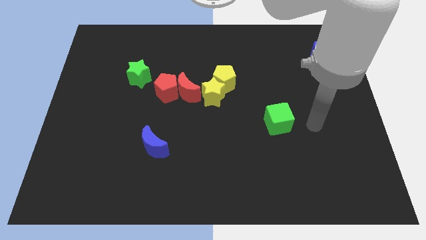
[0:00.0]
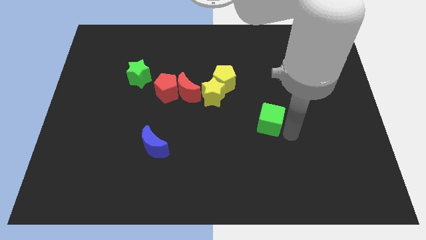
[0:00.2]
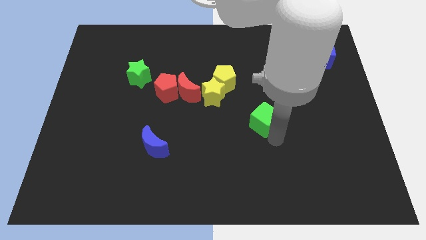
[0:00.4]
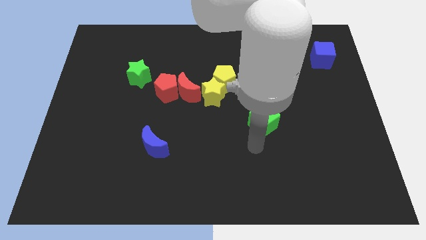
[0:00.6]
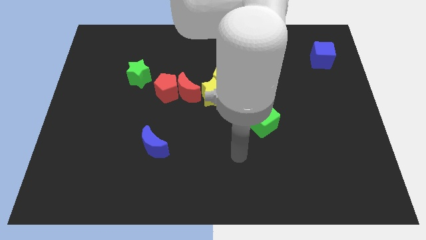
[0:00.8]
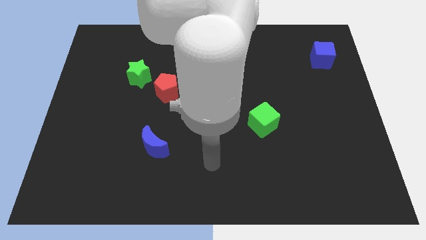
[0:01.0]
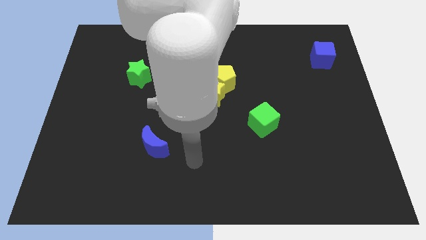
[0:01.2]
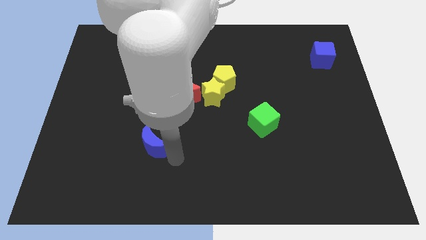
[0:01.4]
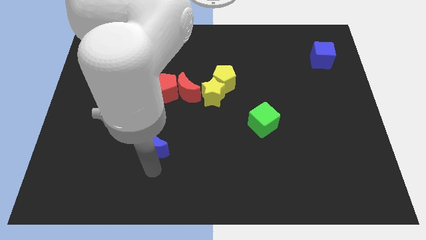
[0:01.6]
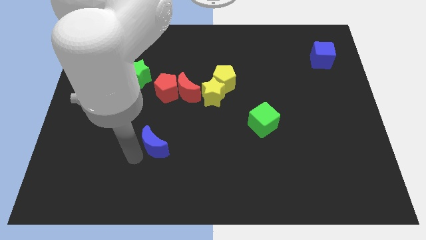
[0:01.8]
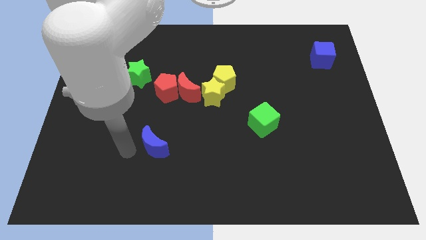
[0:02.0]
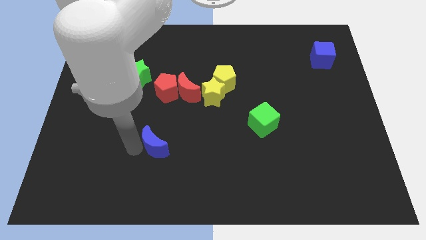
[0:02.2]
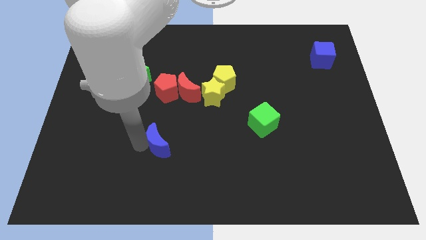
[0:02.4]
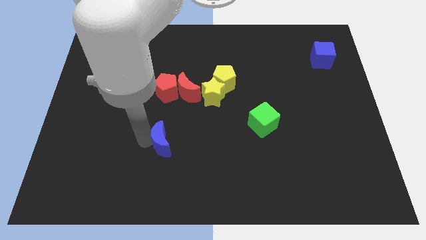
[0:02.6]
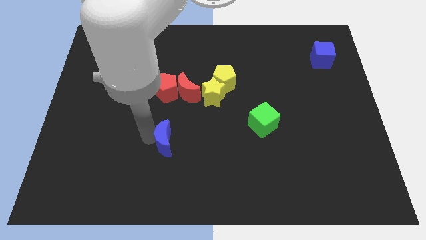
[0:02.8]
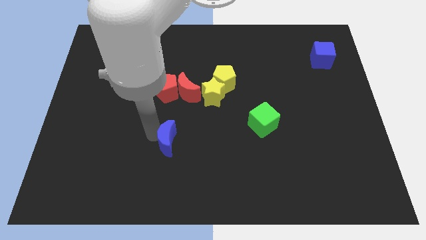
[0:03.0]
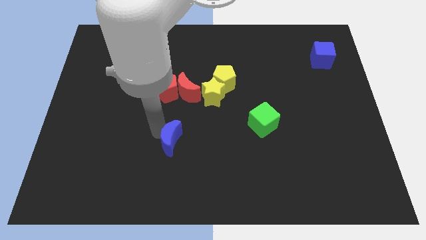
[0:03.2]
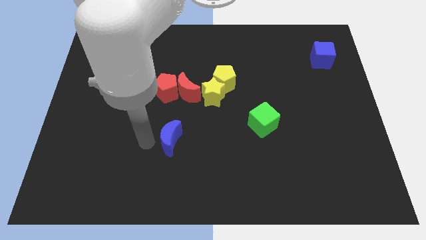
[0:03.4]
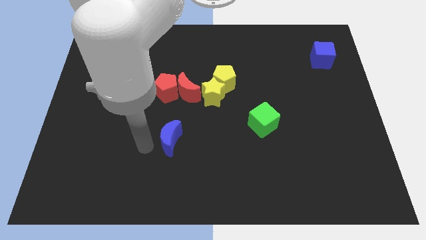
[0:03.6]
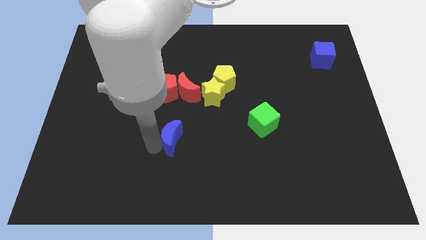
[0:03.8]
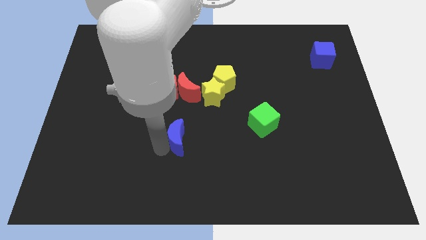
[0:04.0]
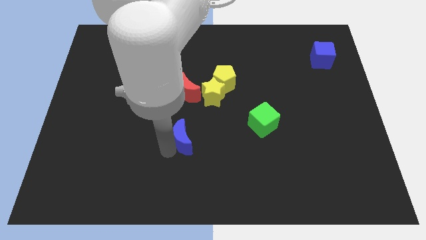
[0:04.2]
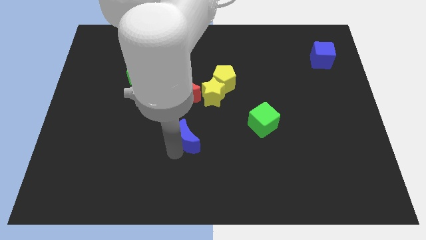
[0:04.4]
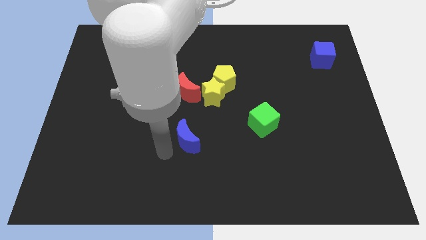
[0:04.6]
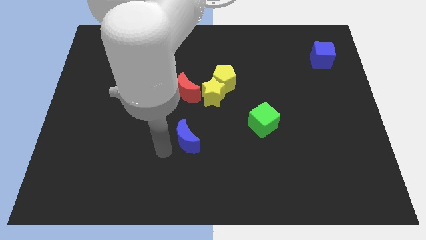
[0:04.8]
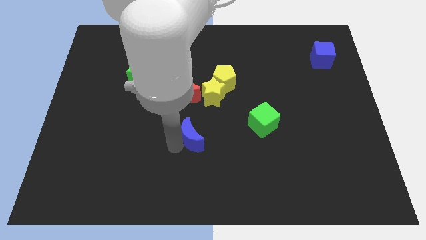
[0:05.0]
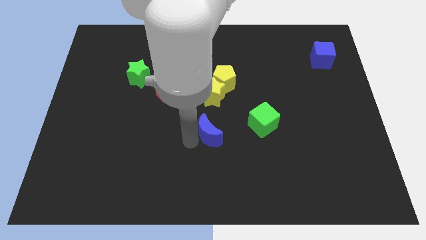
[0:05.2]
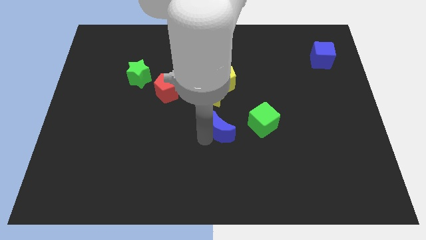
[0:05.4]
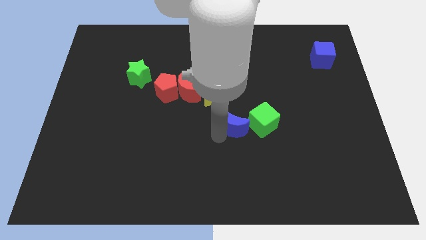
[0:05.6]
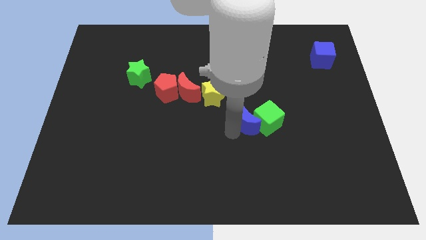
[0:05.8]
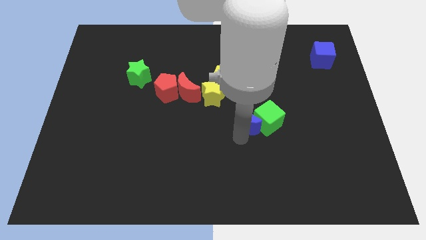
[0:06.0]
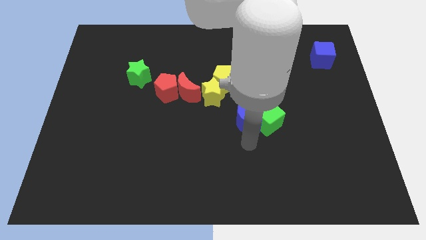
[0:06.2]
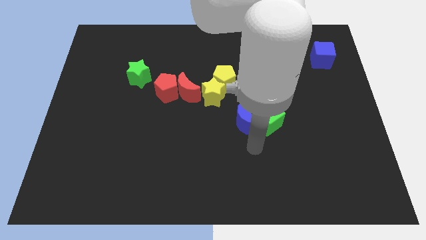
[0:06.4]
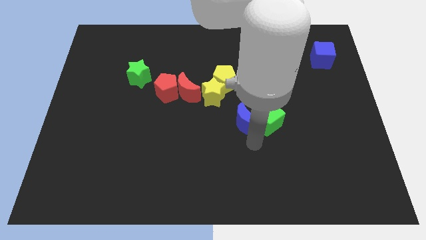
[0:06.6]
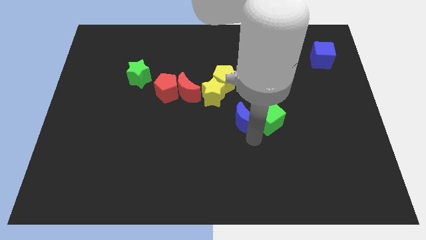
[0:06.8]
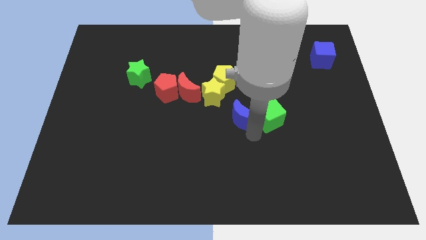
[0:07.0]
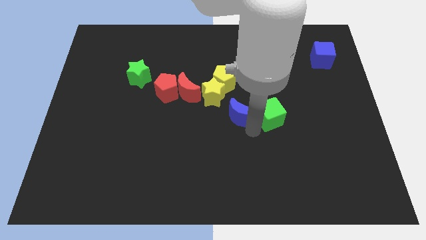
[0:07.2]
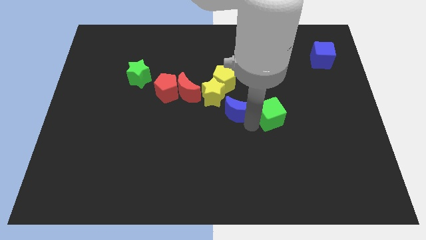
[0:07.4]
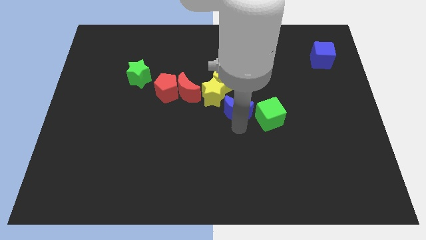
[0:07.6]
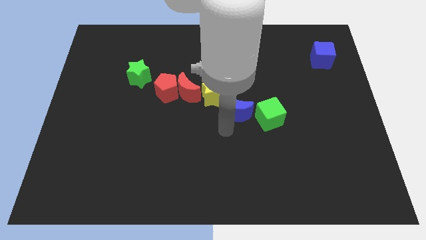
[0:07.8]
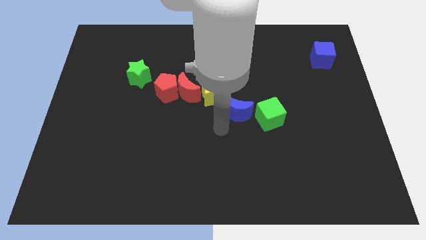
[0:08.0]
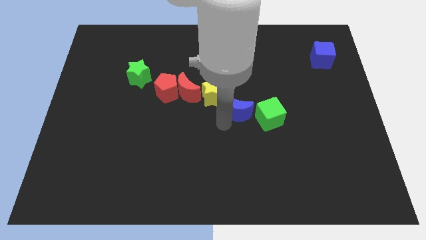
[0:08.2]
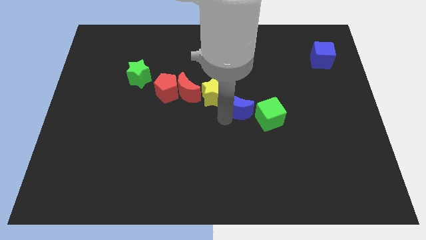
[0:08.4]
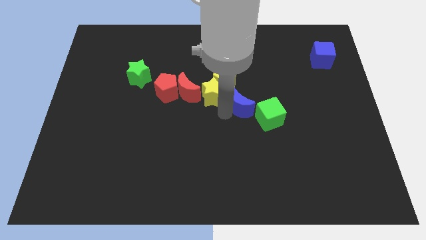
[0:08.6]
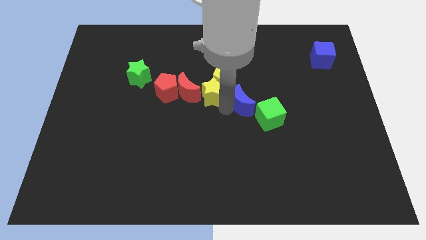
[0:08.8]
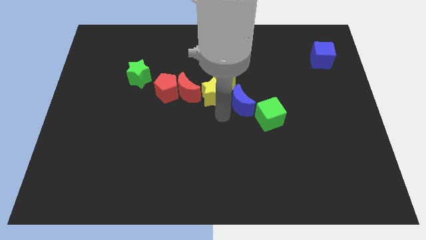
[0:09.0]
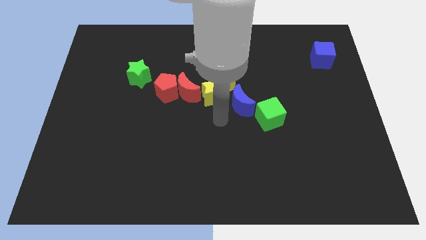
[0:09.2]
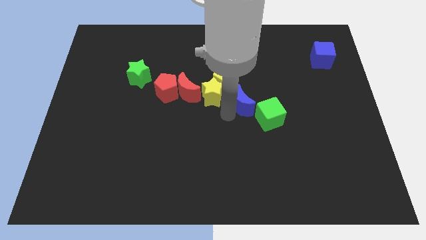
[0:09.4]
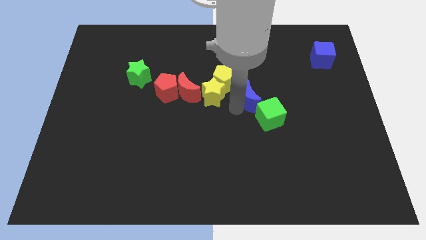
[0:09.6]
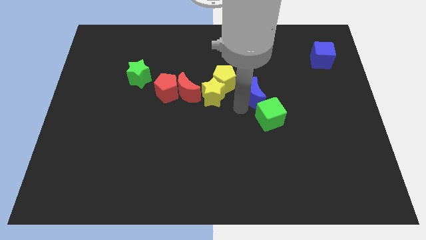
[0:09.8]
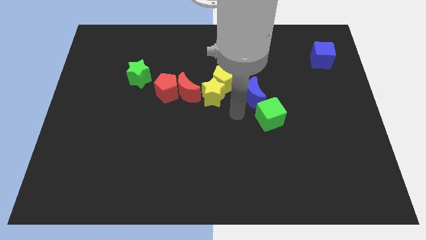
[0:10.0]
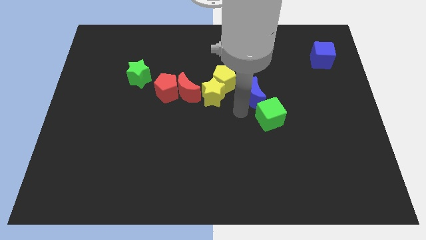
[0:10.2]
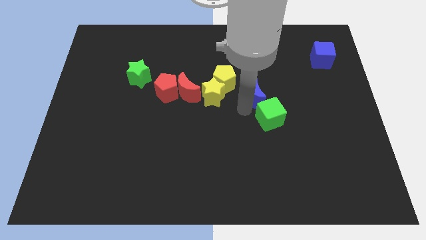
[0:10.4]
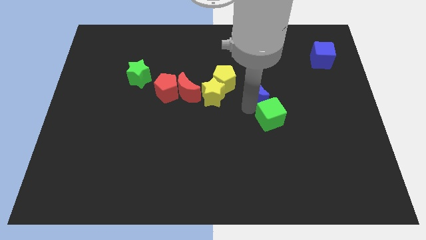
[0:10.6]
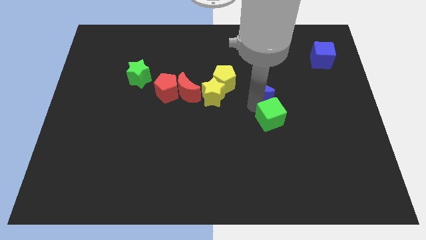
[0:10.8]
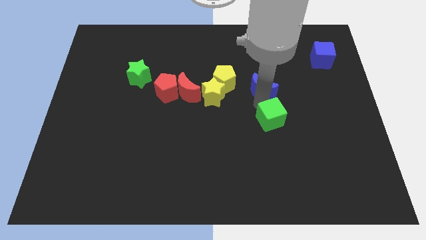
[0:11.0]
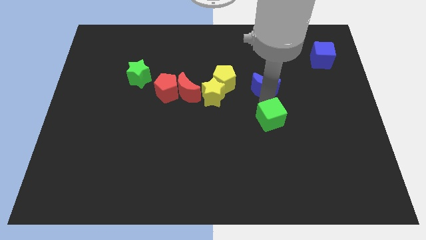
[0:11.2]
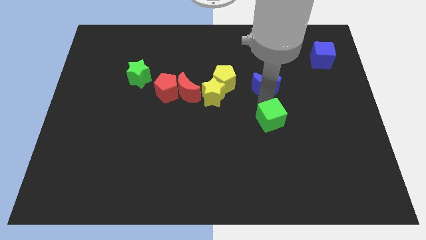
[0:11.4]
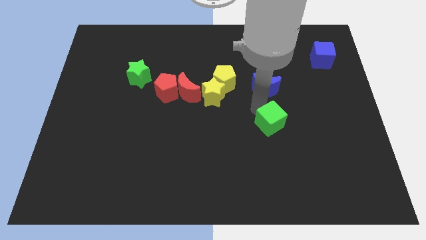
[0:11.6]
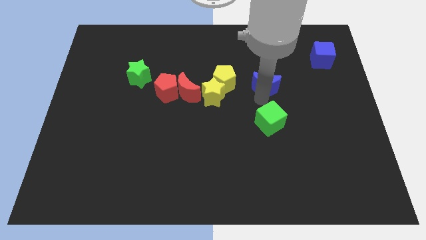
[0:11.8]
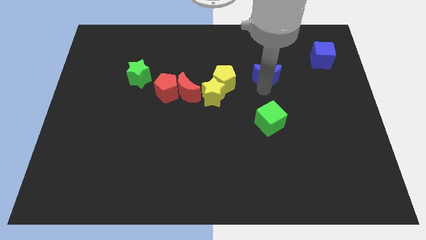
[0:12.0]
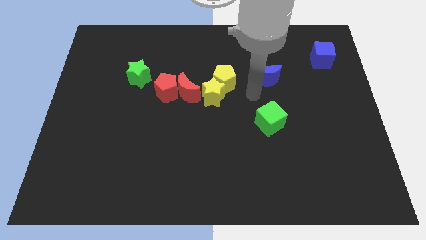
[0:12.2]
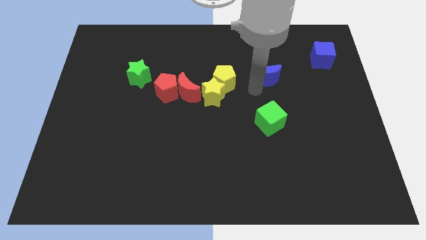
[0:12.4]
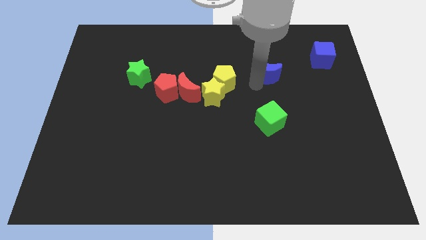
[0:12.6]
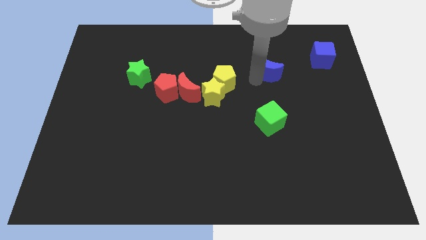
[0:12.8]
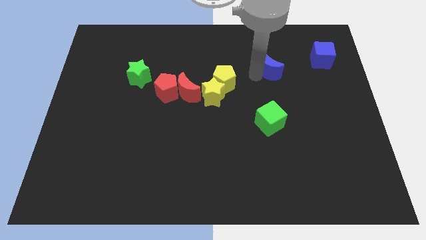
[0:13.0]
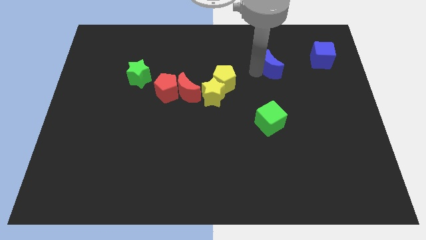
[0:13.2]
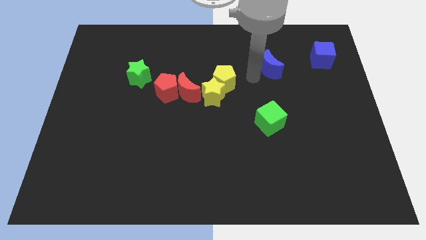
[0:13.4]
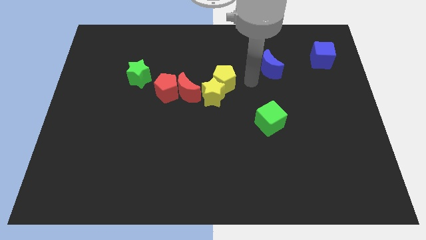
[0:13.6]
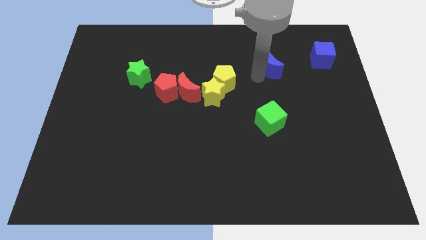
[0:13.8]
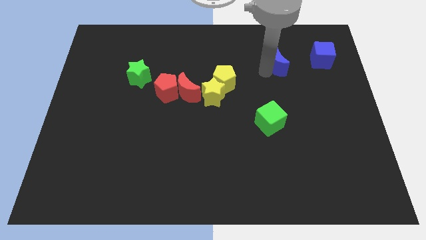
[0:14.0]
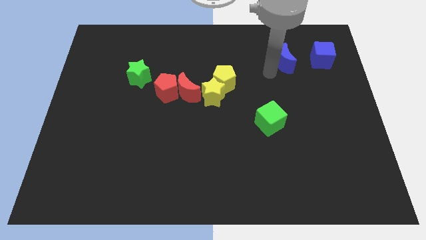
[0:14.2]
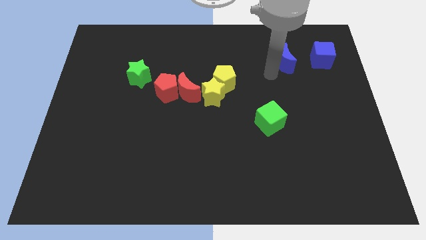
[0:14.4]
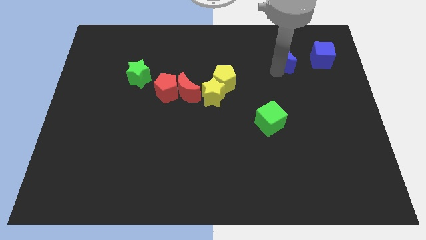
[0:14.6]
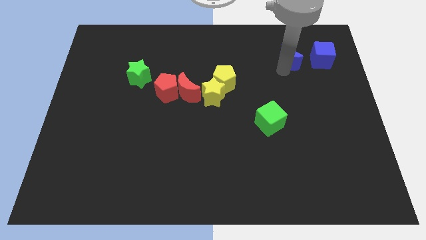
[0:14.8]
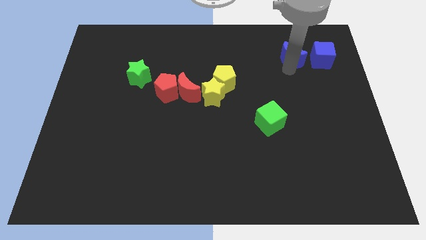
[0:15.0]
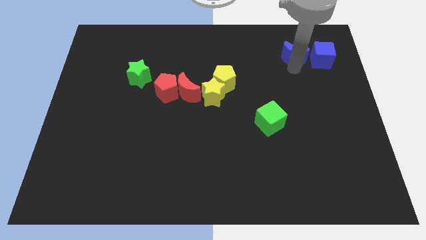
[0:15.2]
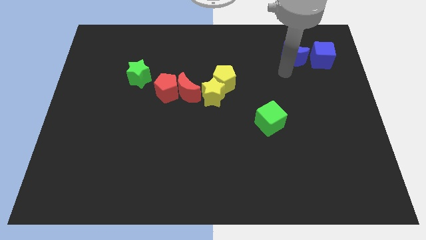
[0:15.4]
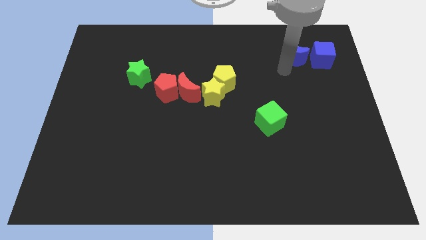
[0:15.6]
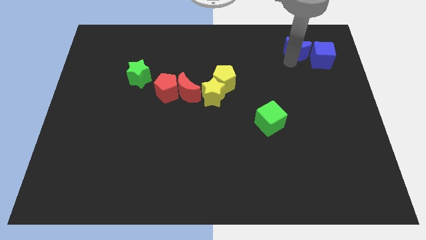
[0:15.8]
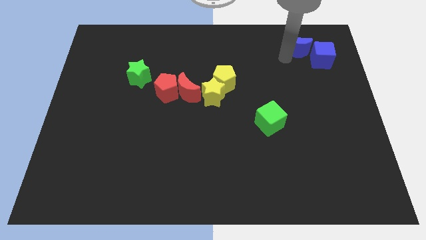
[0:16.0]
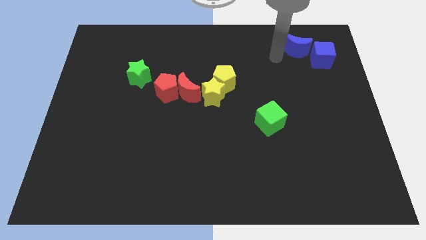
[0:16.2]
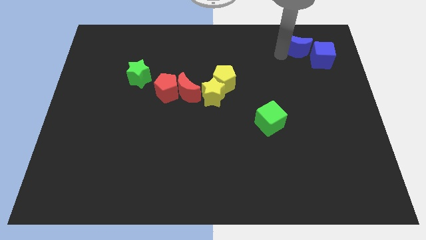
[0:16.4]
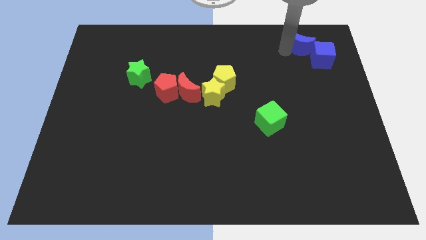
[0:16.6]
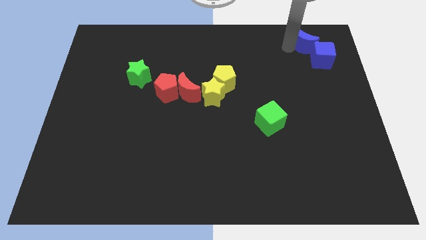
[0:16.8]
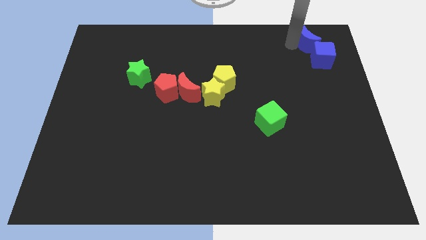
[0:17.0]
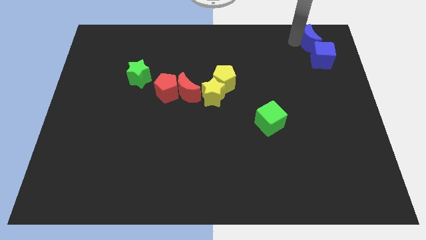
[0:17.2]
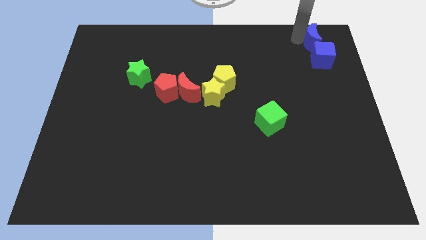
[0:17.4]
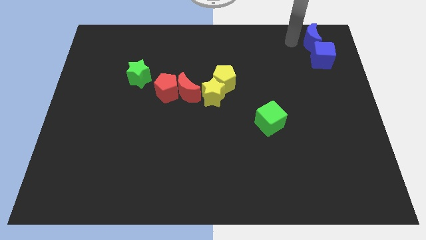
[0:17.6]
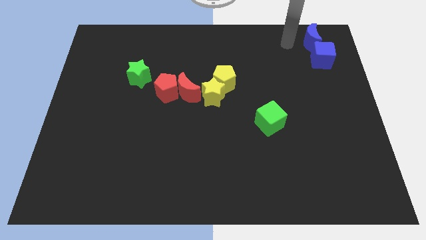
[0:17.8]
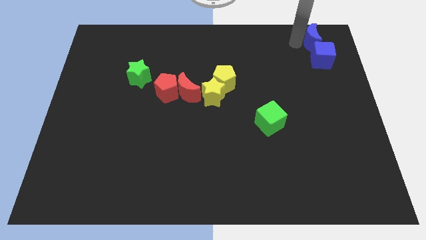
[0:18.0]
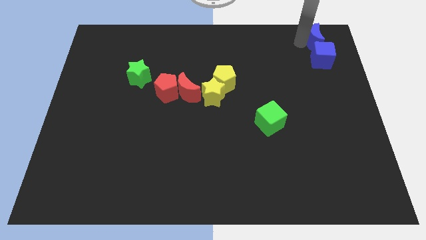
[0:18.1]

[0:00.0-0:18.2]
slide the blue moon to the upper right corner
